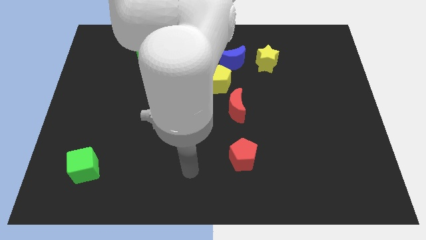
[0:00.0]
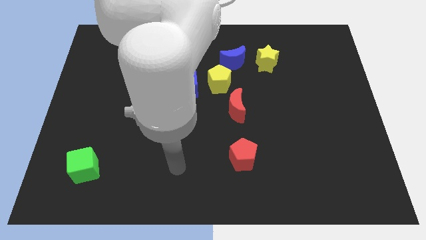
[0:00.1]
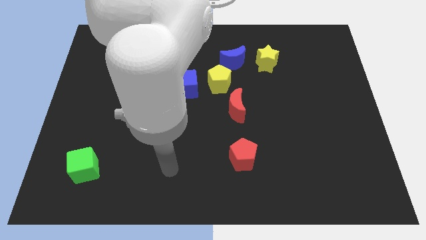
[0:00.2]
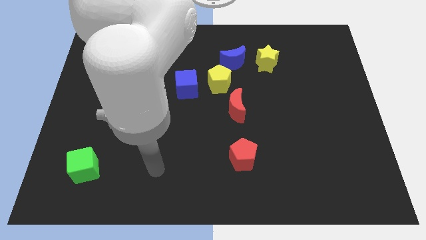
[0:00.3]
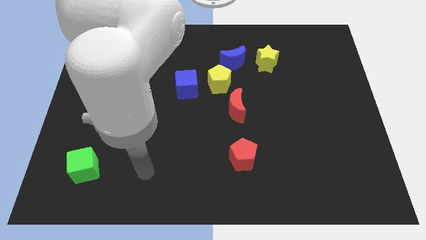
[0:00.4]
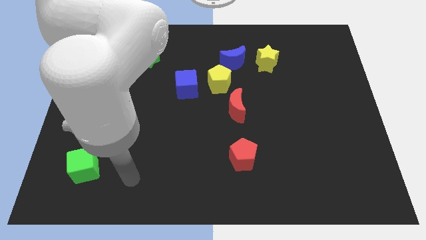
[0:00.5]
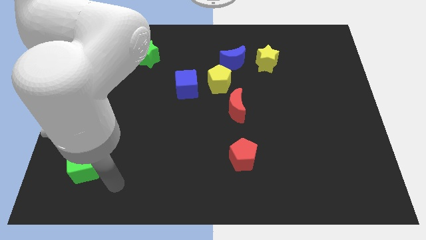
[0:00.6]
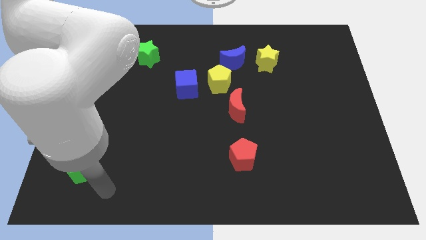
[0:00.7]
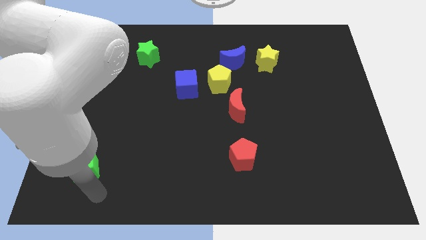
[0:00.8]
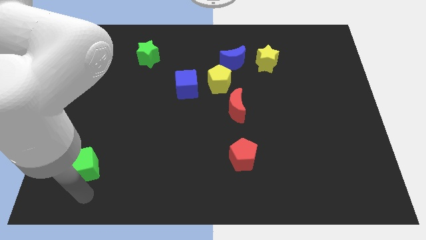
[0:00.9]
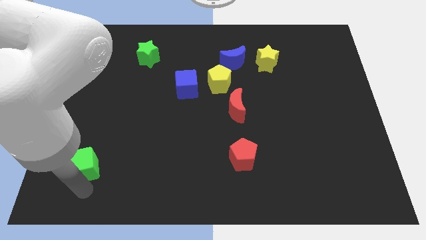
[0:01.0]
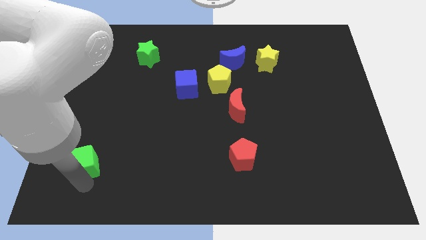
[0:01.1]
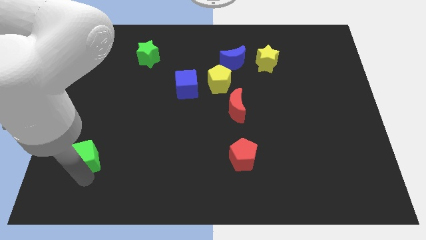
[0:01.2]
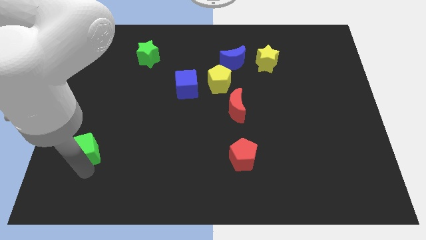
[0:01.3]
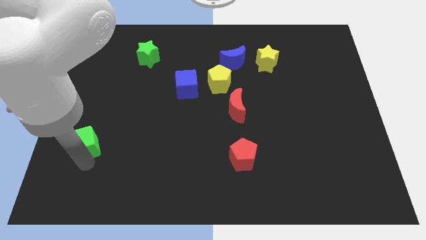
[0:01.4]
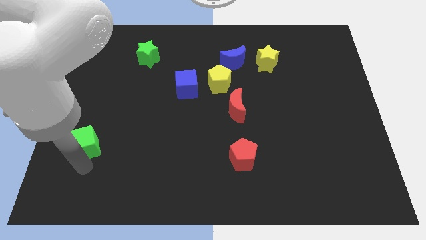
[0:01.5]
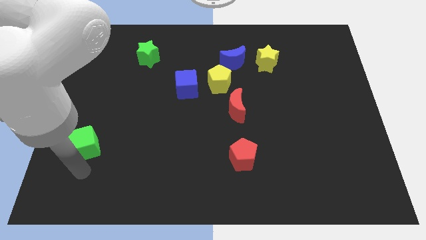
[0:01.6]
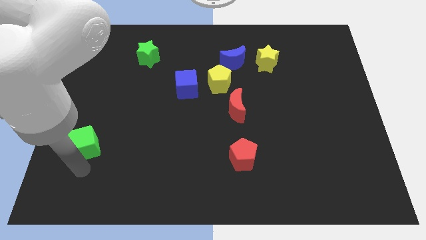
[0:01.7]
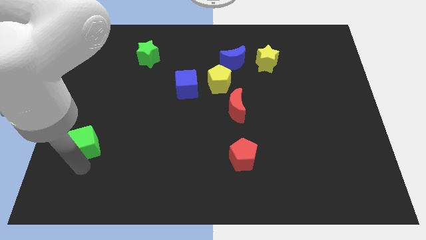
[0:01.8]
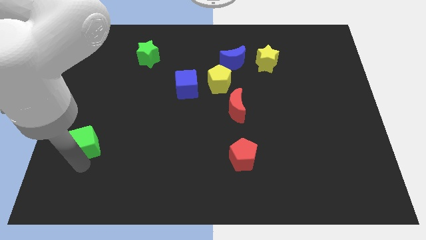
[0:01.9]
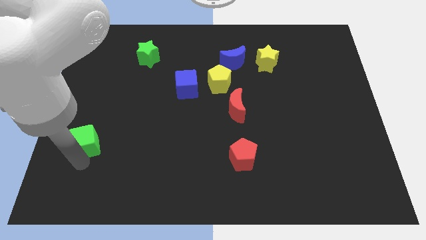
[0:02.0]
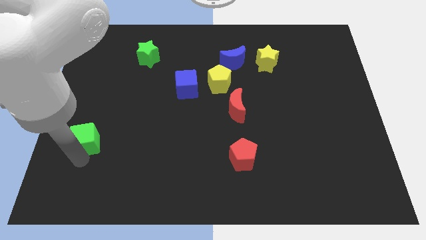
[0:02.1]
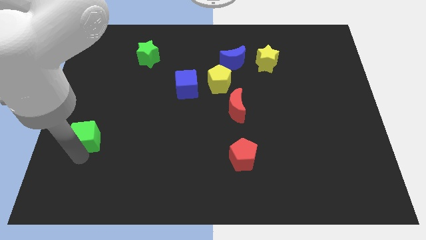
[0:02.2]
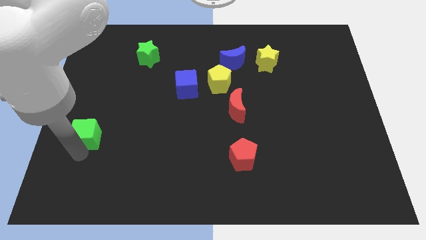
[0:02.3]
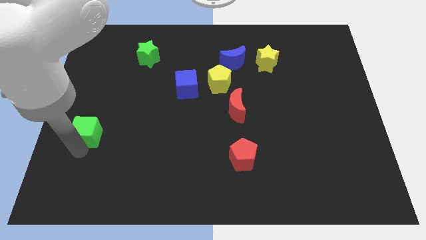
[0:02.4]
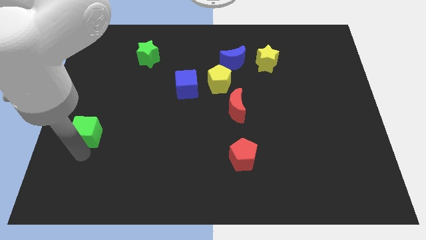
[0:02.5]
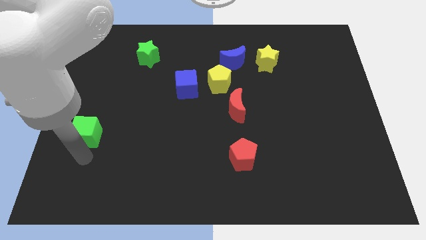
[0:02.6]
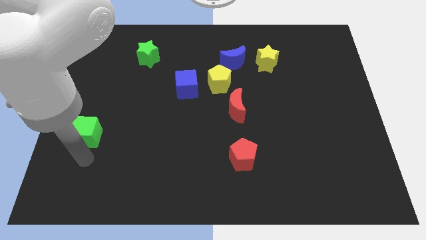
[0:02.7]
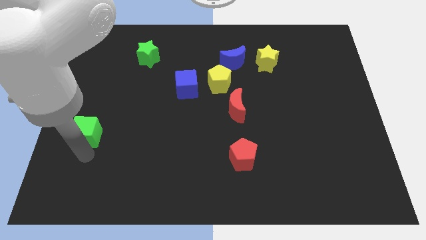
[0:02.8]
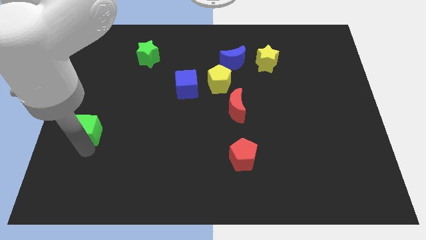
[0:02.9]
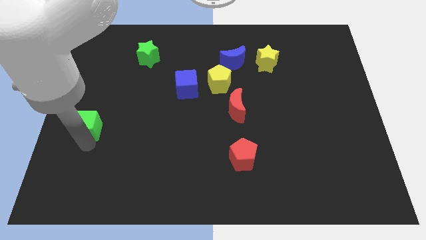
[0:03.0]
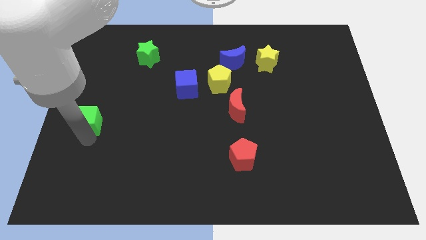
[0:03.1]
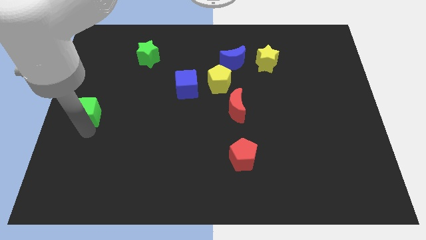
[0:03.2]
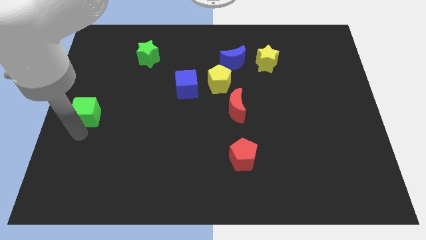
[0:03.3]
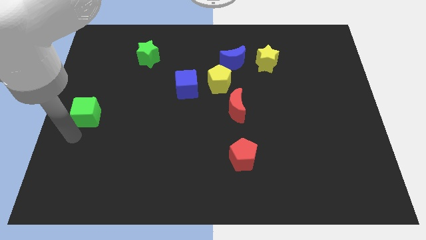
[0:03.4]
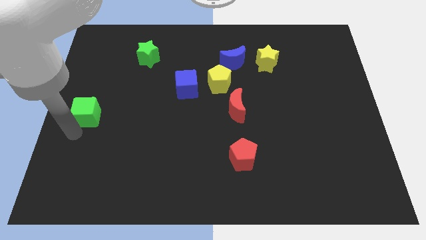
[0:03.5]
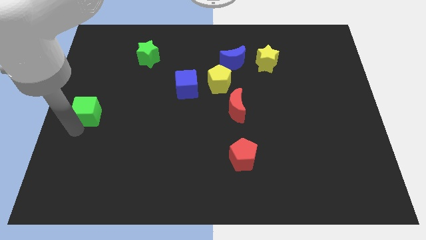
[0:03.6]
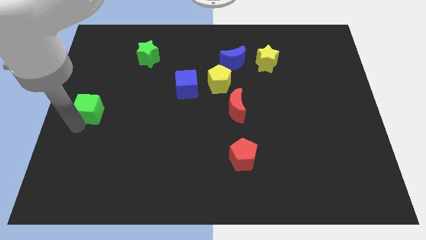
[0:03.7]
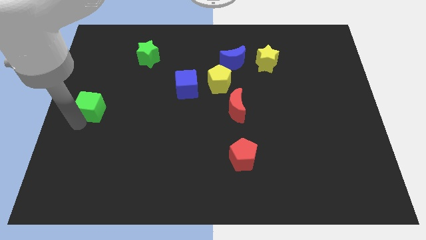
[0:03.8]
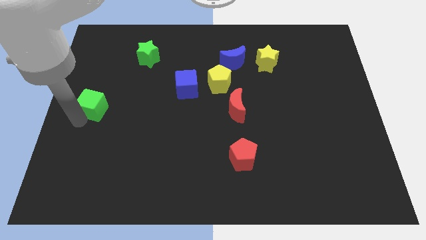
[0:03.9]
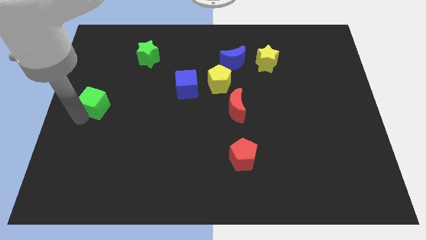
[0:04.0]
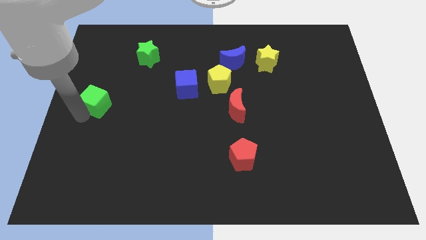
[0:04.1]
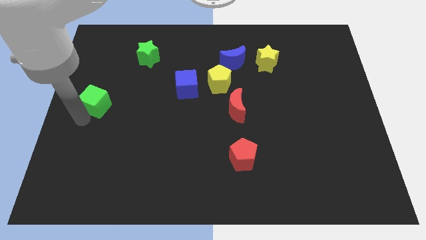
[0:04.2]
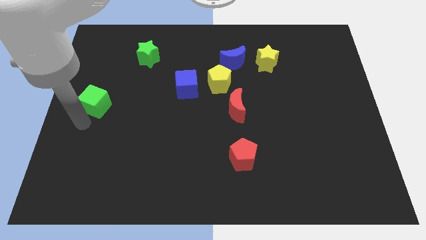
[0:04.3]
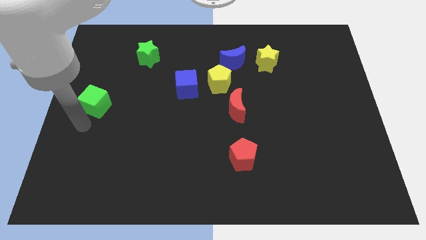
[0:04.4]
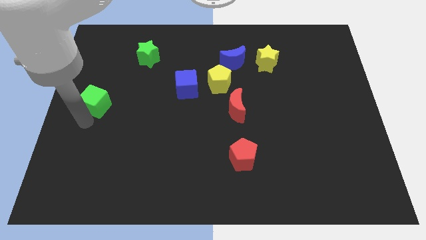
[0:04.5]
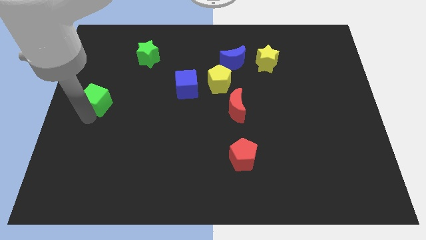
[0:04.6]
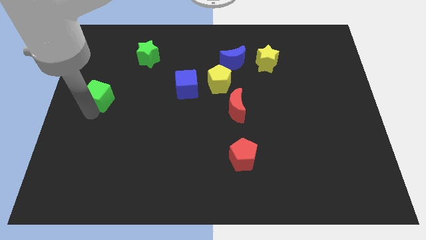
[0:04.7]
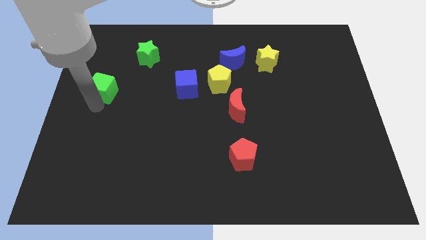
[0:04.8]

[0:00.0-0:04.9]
move the green cube upwards

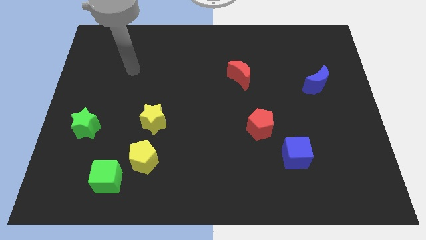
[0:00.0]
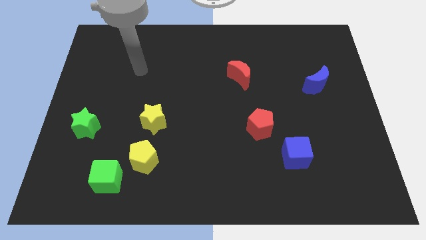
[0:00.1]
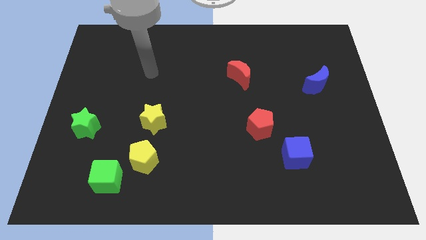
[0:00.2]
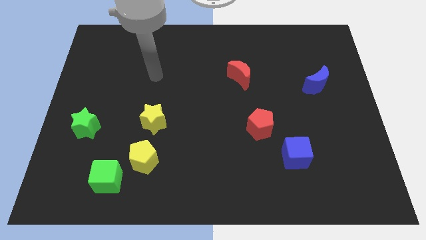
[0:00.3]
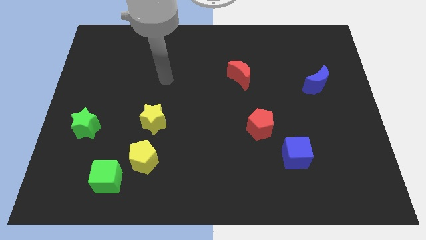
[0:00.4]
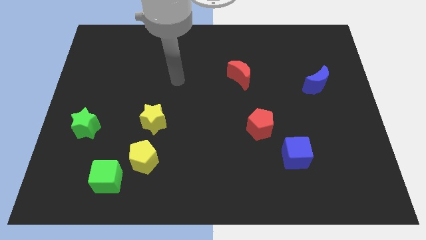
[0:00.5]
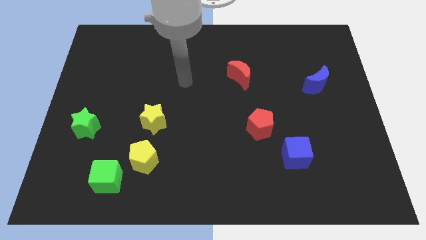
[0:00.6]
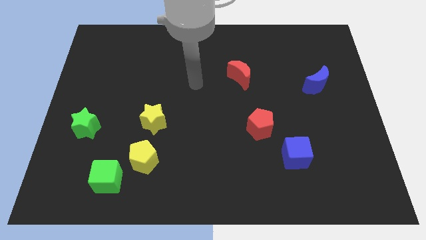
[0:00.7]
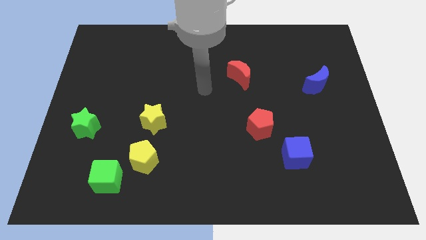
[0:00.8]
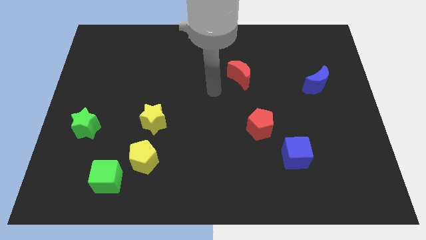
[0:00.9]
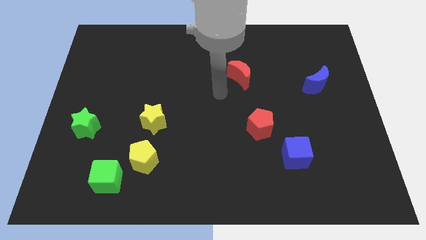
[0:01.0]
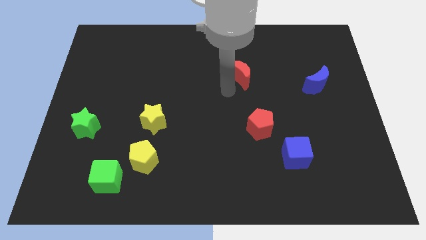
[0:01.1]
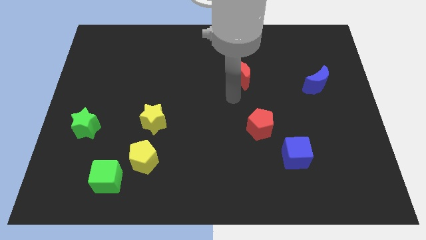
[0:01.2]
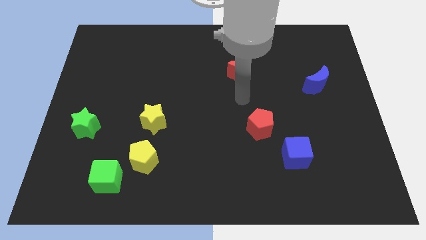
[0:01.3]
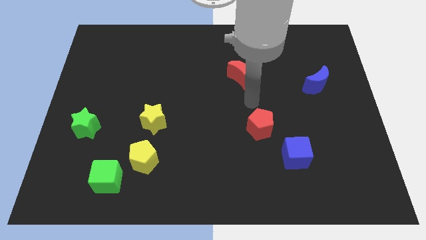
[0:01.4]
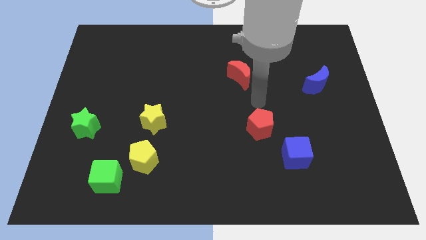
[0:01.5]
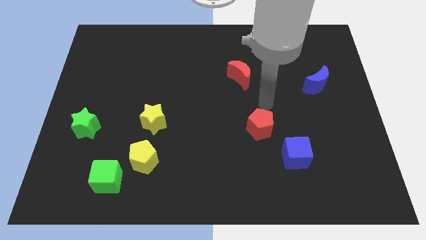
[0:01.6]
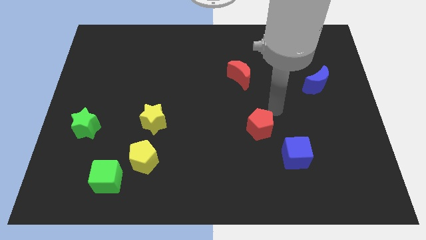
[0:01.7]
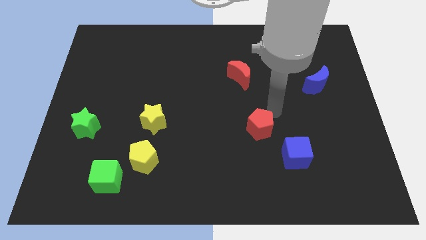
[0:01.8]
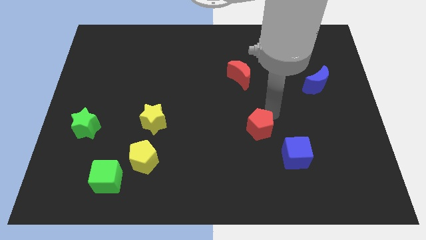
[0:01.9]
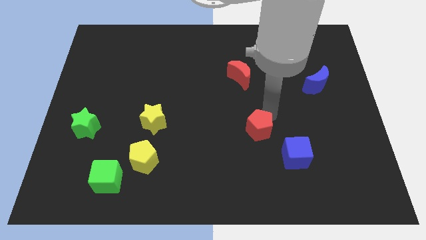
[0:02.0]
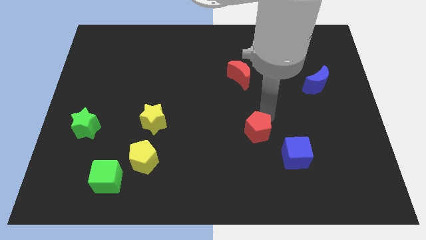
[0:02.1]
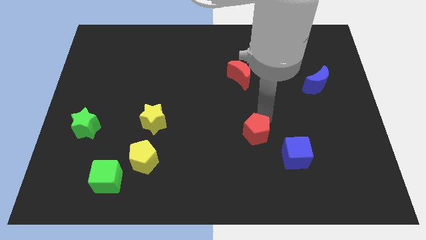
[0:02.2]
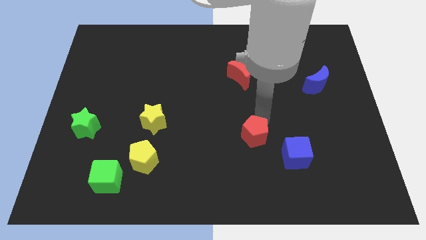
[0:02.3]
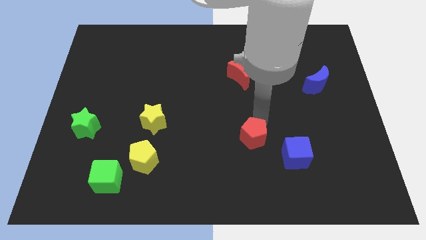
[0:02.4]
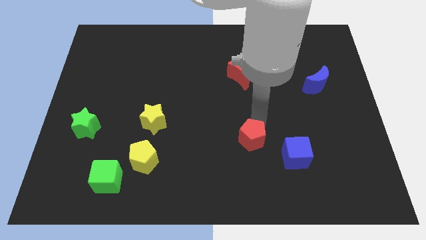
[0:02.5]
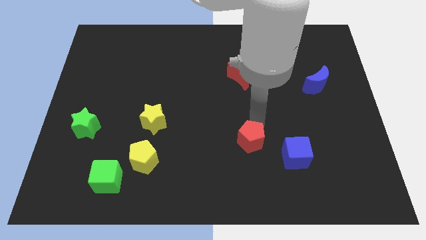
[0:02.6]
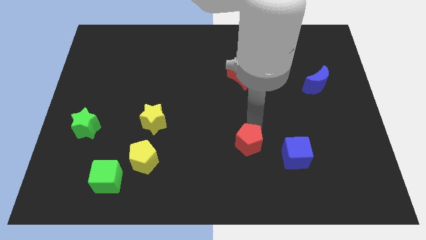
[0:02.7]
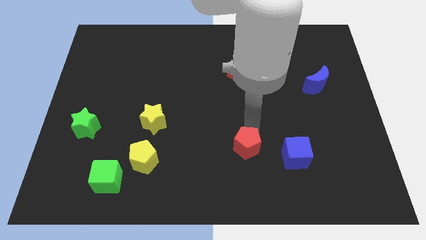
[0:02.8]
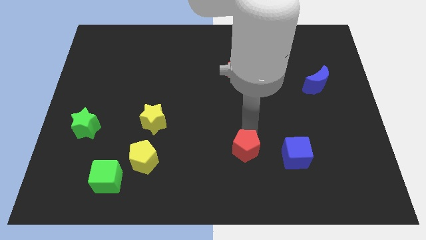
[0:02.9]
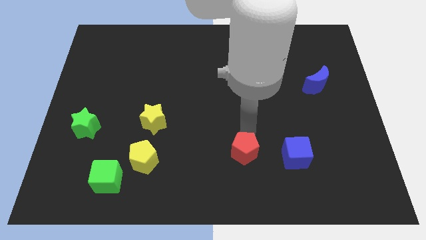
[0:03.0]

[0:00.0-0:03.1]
slide the red pentagon somewhat down and then to the left
